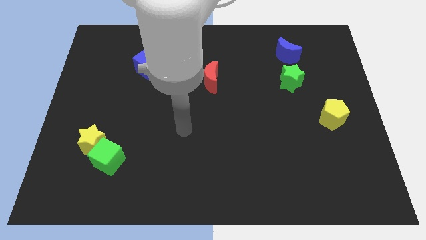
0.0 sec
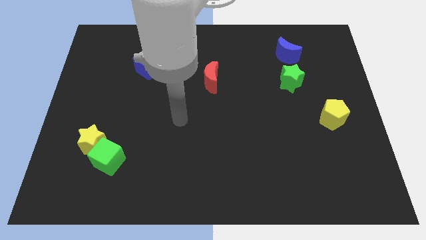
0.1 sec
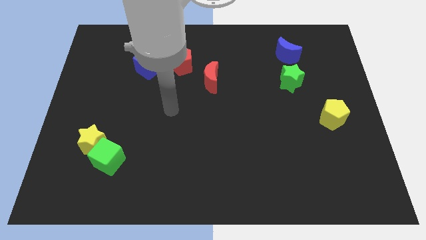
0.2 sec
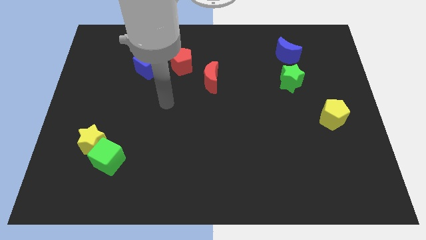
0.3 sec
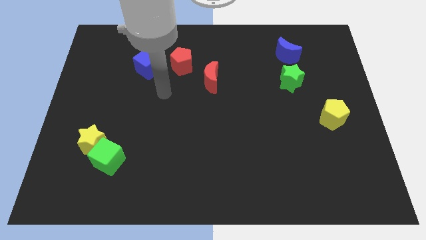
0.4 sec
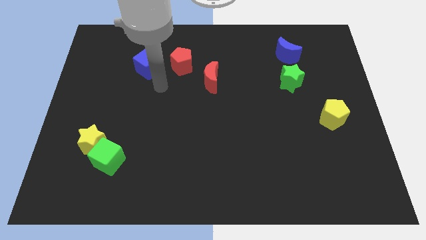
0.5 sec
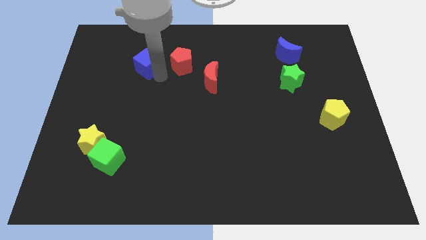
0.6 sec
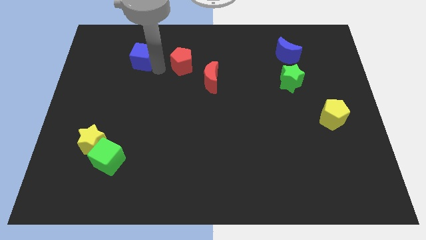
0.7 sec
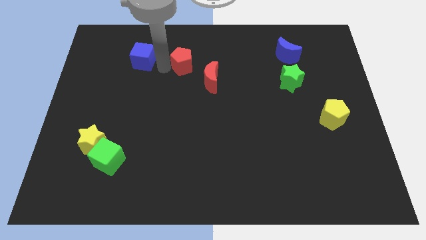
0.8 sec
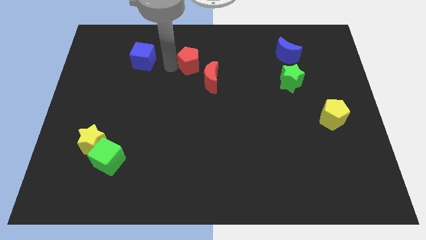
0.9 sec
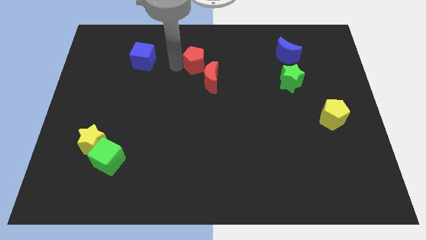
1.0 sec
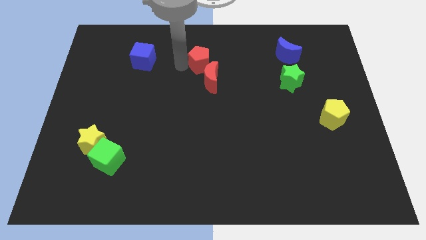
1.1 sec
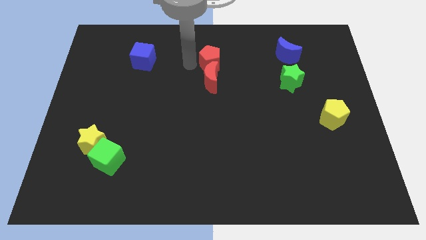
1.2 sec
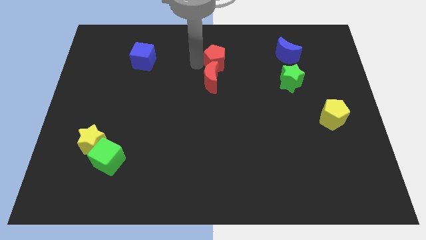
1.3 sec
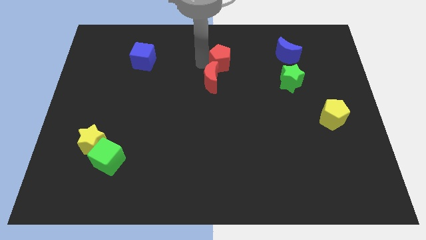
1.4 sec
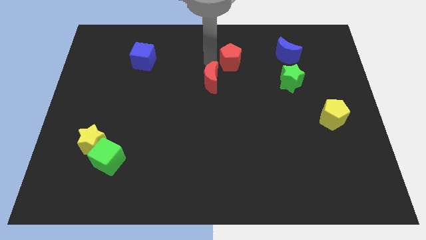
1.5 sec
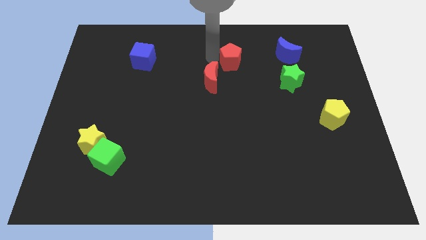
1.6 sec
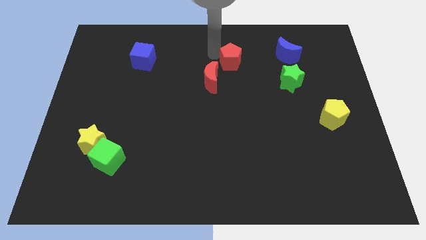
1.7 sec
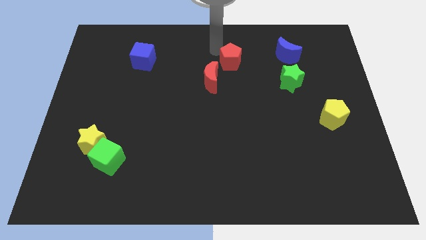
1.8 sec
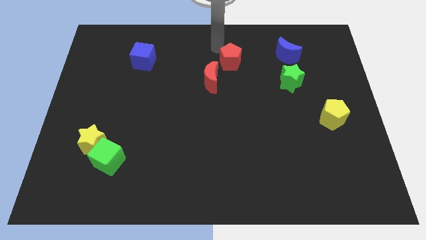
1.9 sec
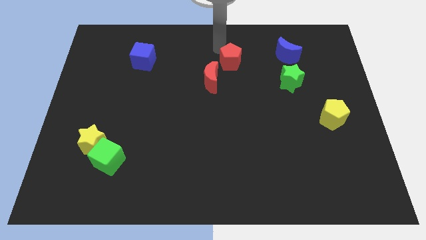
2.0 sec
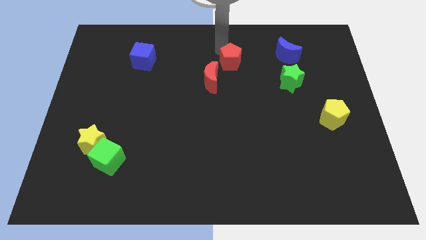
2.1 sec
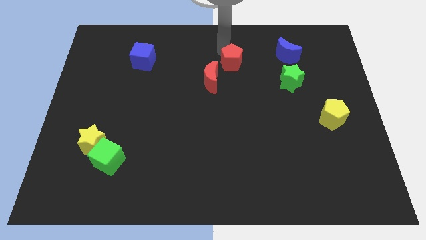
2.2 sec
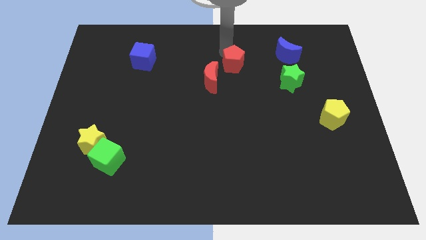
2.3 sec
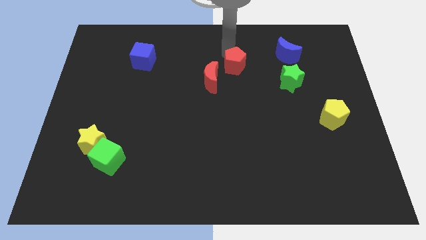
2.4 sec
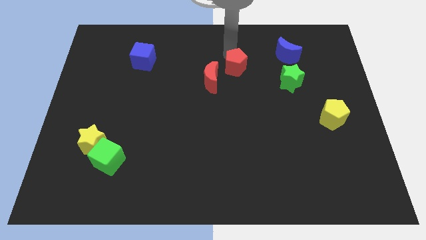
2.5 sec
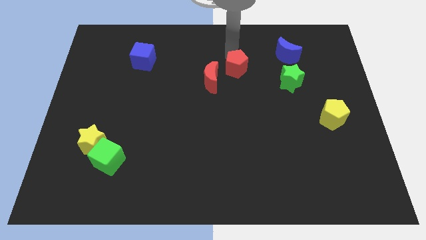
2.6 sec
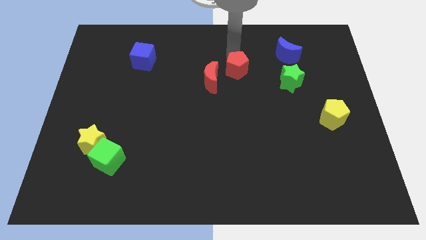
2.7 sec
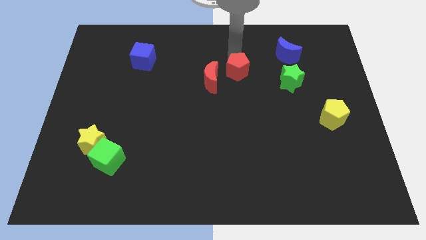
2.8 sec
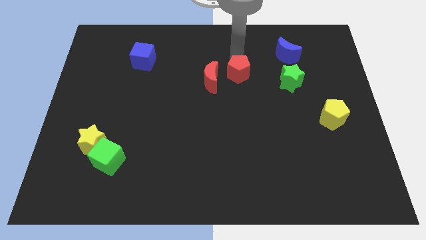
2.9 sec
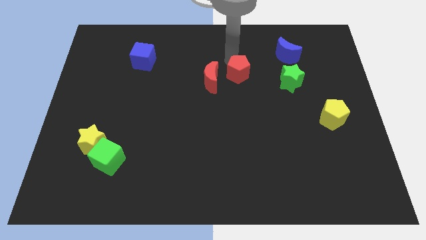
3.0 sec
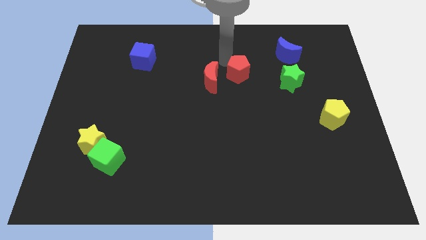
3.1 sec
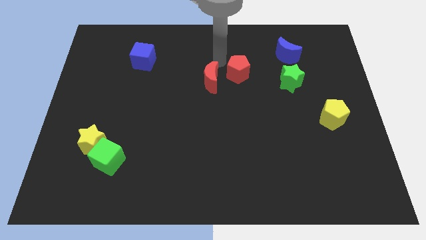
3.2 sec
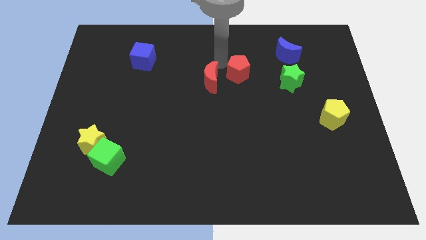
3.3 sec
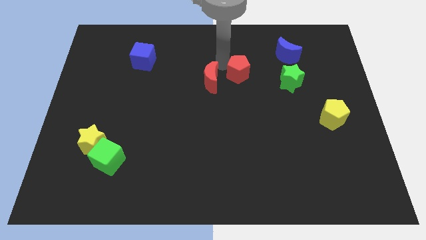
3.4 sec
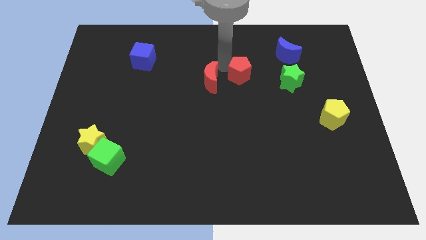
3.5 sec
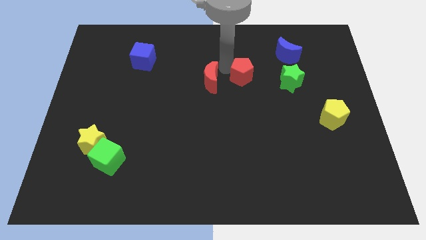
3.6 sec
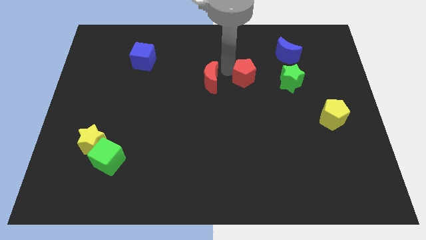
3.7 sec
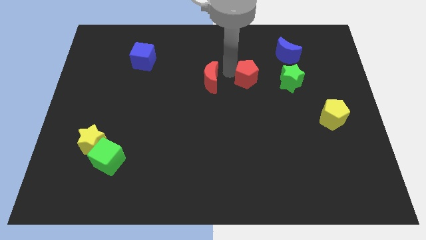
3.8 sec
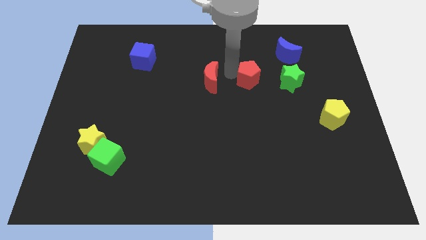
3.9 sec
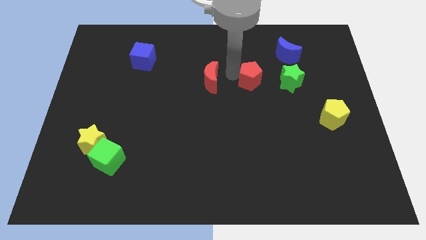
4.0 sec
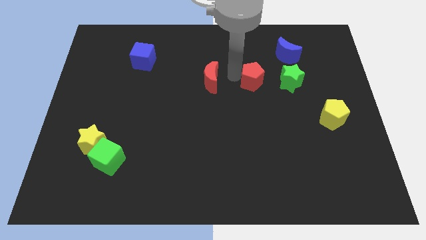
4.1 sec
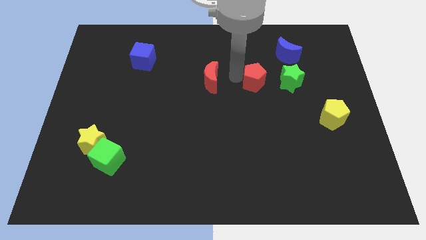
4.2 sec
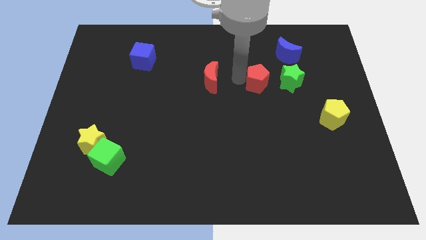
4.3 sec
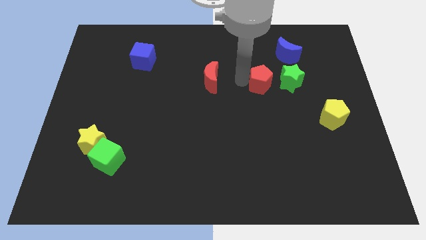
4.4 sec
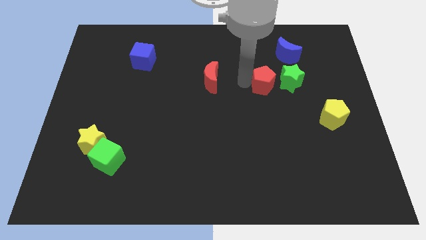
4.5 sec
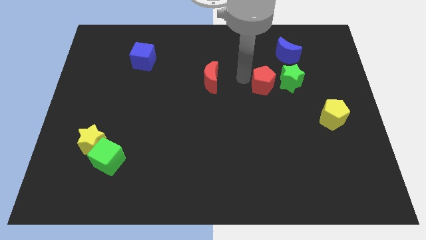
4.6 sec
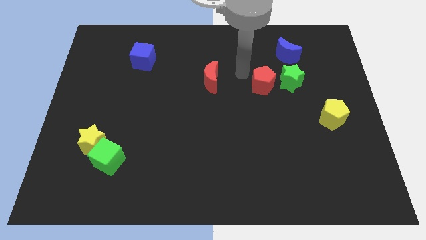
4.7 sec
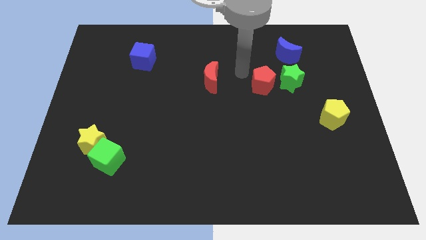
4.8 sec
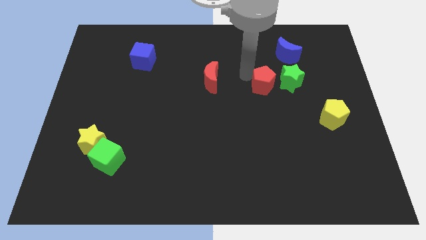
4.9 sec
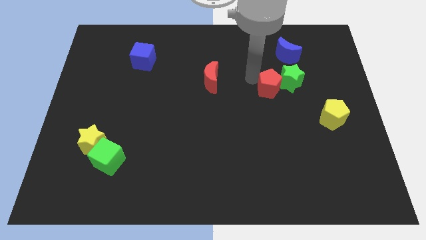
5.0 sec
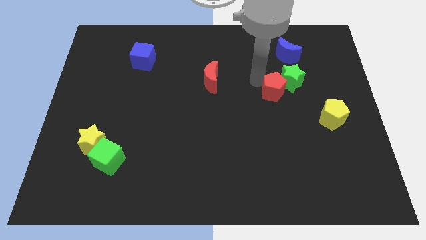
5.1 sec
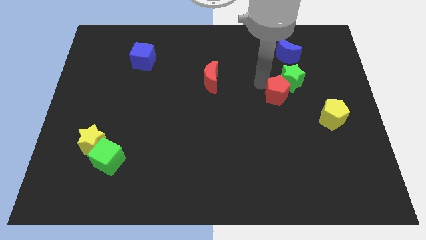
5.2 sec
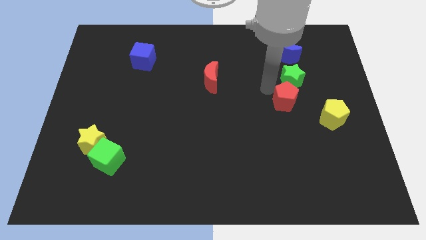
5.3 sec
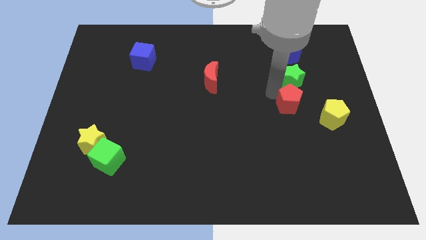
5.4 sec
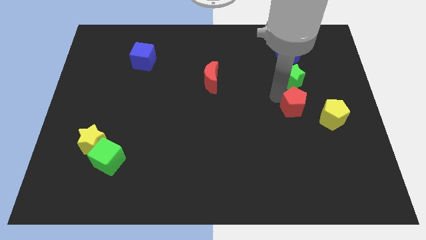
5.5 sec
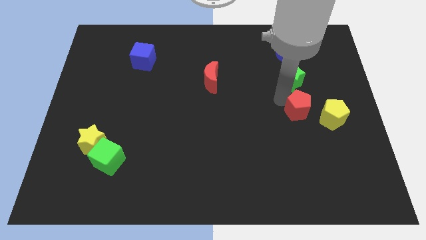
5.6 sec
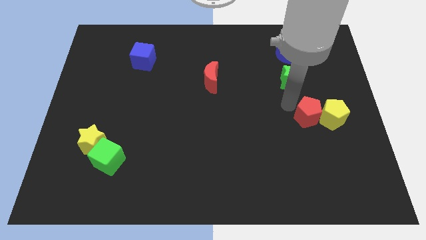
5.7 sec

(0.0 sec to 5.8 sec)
move the red pentagon to the yellow pentagon

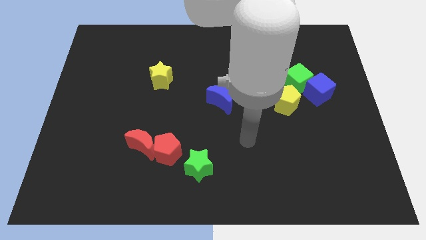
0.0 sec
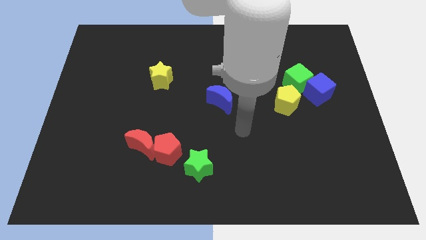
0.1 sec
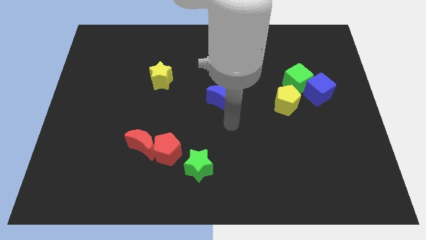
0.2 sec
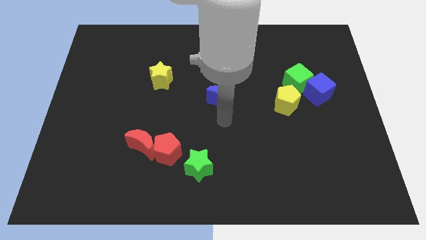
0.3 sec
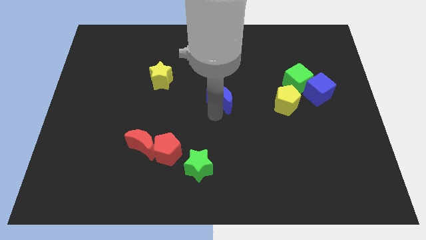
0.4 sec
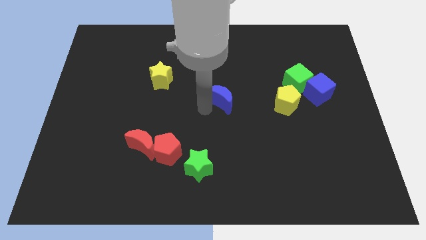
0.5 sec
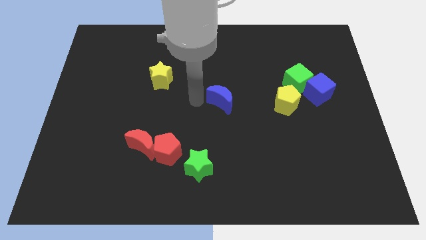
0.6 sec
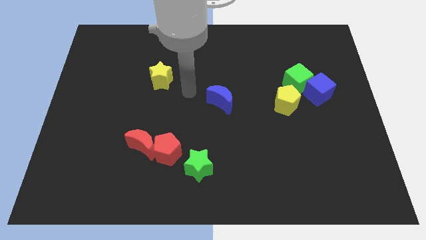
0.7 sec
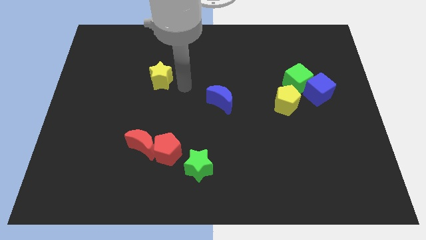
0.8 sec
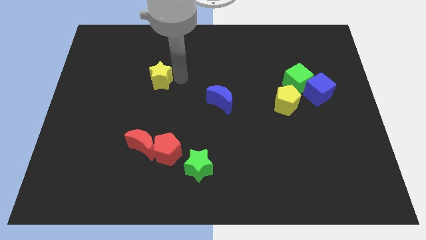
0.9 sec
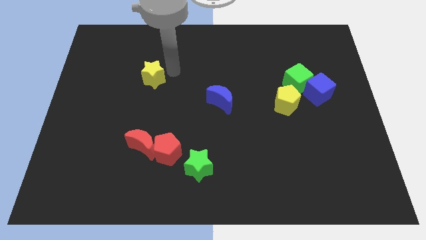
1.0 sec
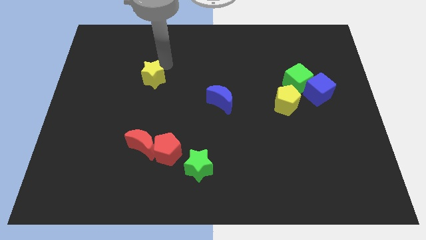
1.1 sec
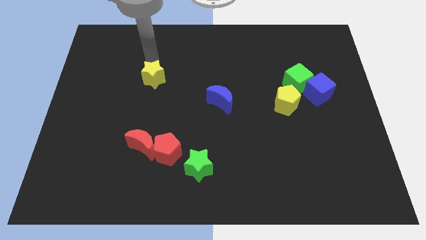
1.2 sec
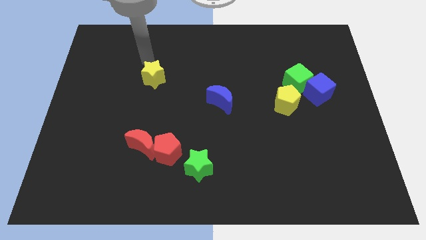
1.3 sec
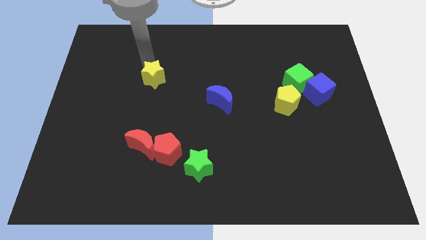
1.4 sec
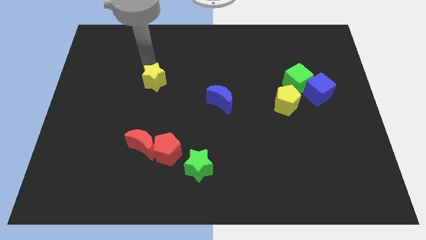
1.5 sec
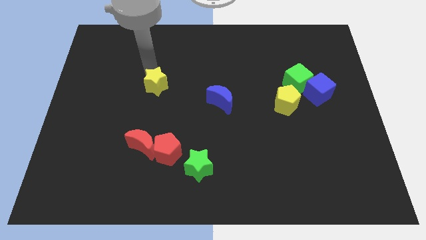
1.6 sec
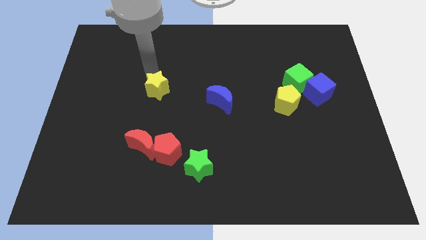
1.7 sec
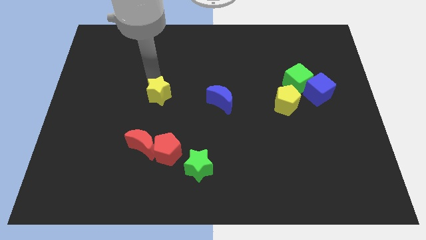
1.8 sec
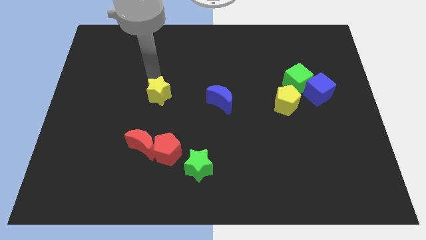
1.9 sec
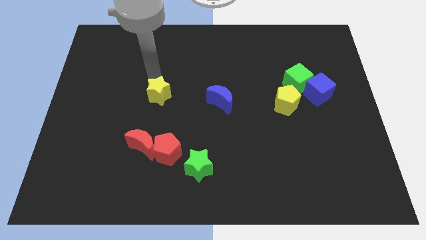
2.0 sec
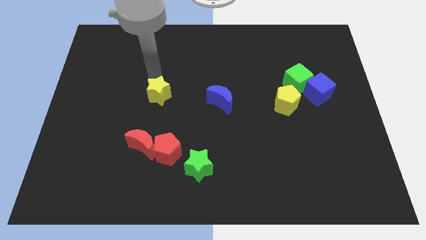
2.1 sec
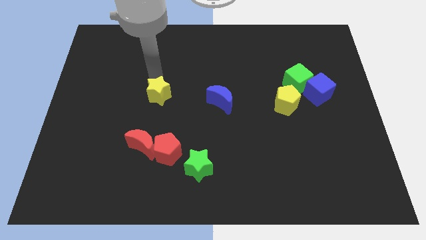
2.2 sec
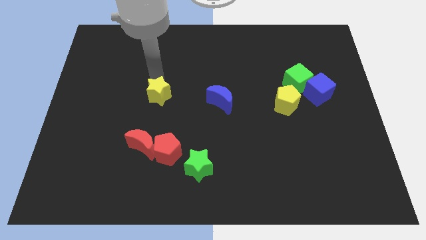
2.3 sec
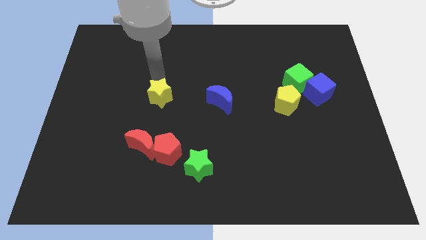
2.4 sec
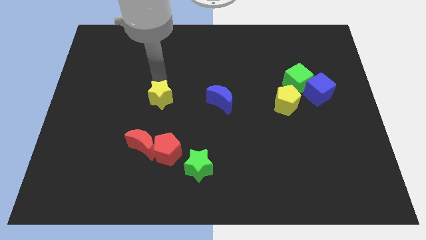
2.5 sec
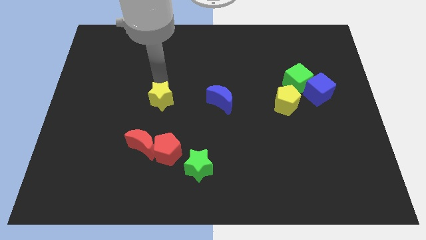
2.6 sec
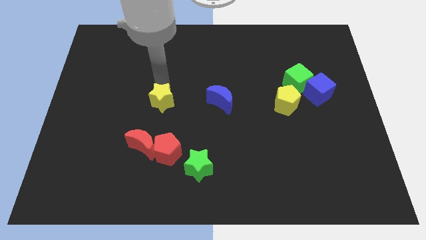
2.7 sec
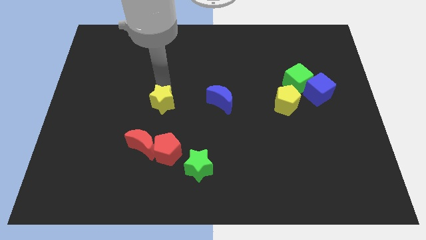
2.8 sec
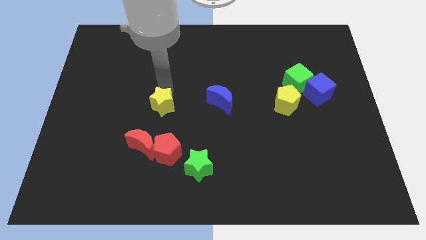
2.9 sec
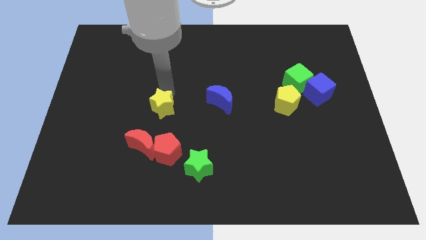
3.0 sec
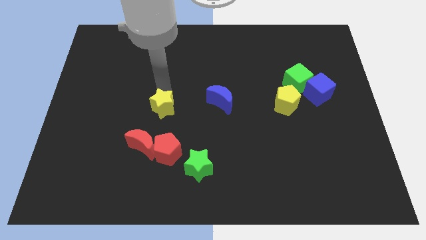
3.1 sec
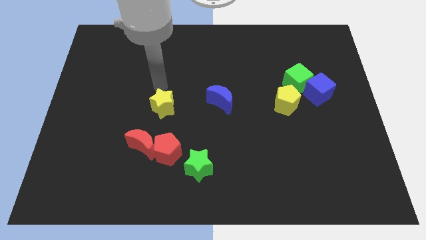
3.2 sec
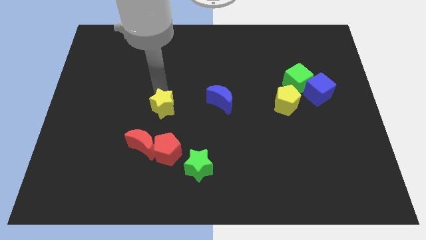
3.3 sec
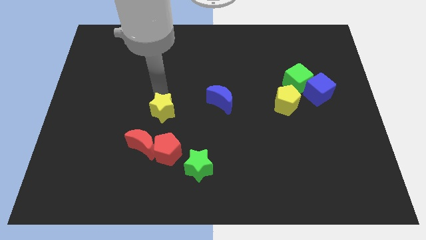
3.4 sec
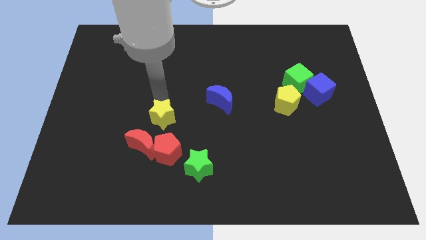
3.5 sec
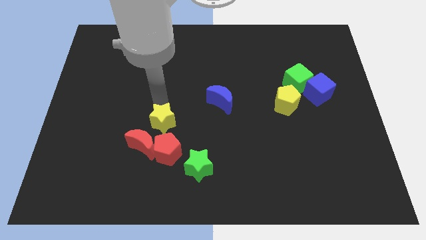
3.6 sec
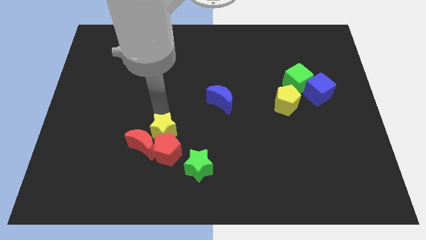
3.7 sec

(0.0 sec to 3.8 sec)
slide the yellow star towards the red pentagon
